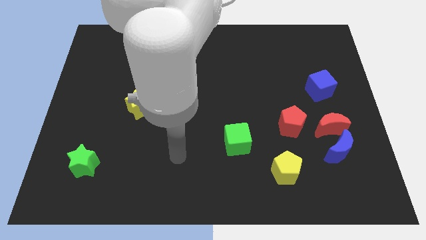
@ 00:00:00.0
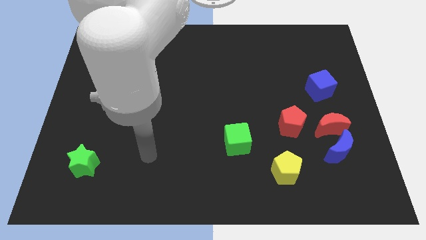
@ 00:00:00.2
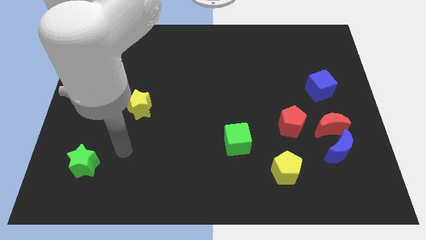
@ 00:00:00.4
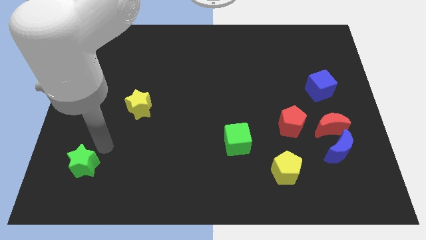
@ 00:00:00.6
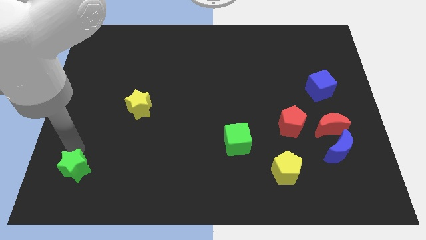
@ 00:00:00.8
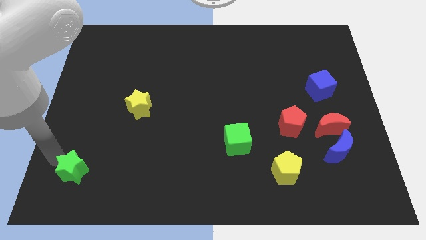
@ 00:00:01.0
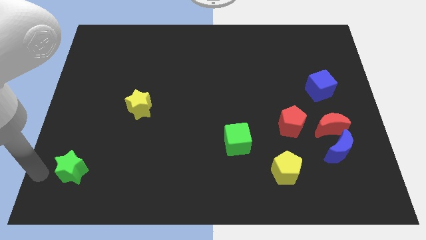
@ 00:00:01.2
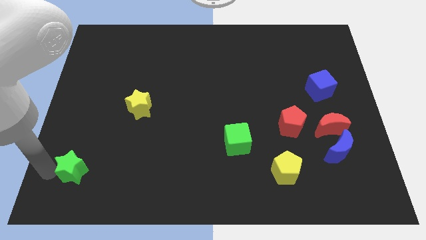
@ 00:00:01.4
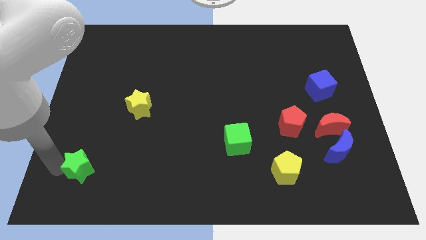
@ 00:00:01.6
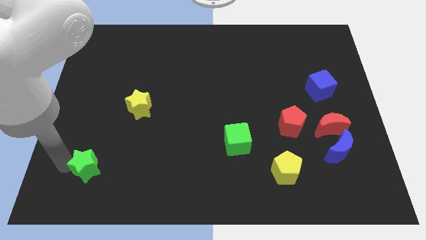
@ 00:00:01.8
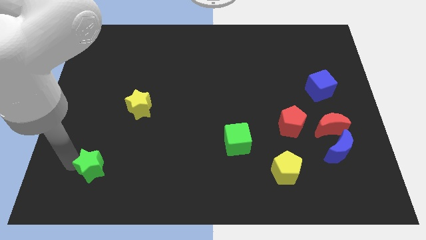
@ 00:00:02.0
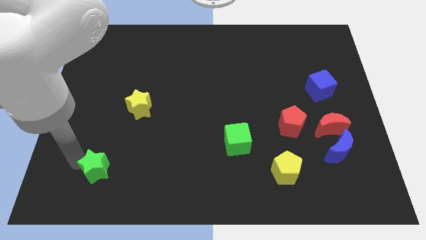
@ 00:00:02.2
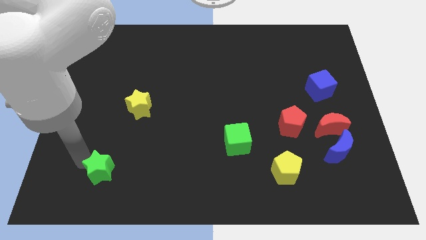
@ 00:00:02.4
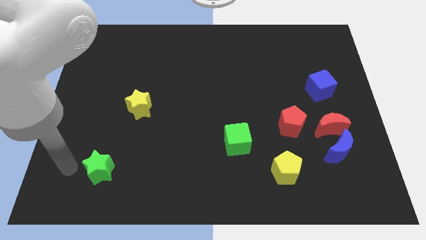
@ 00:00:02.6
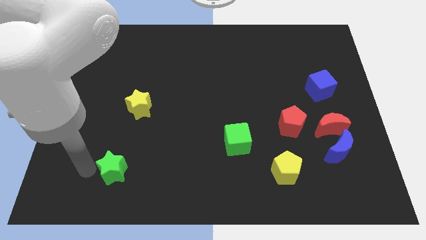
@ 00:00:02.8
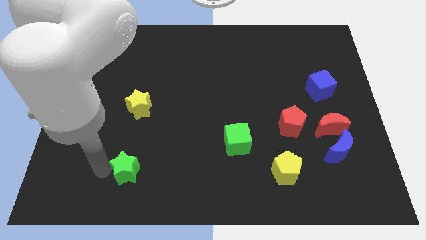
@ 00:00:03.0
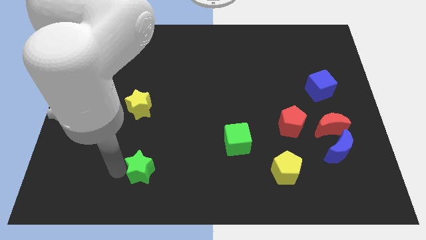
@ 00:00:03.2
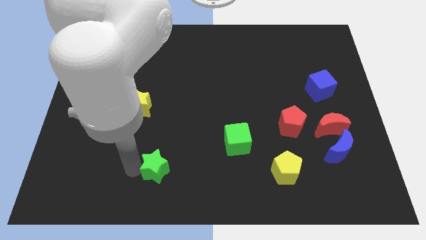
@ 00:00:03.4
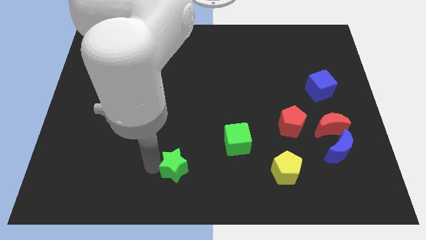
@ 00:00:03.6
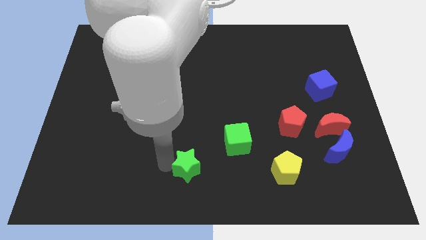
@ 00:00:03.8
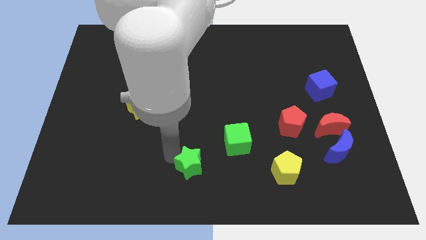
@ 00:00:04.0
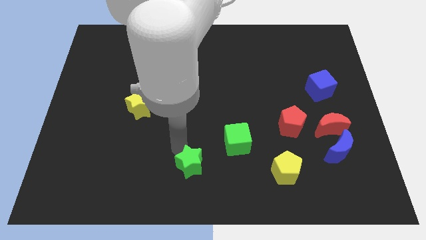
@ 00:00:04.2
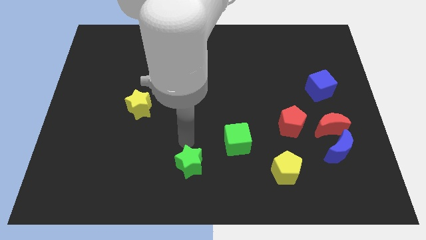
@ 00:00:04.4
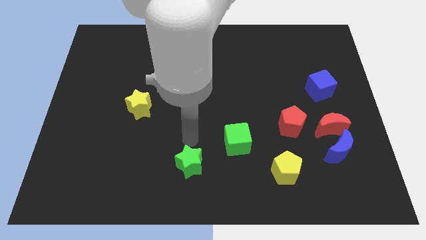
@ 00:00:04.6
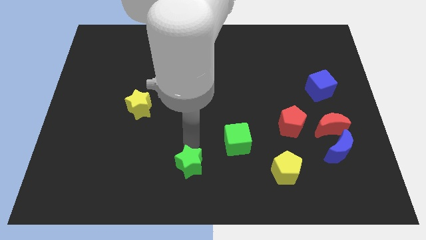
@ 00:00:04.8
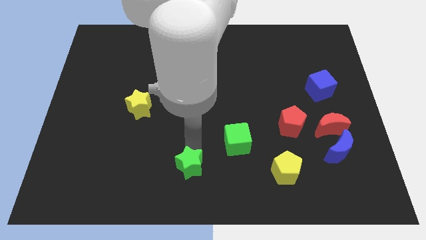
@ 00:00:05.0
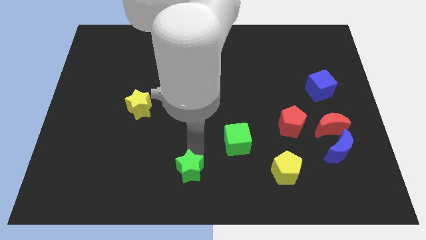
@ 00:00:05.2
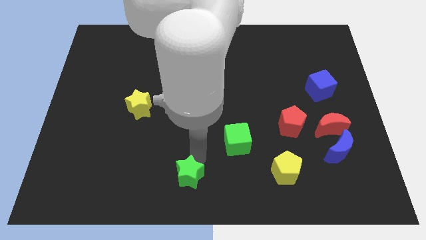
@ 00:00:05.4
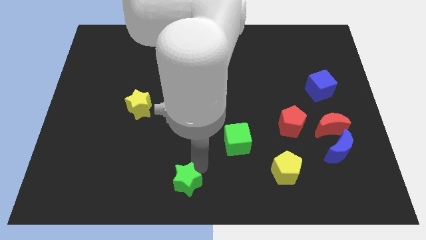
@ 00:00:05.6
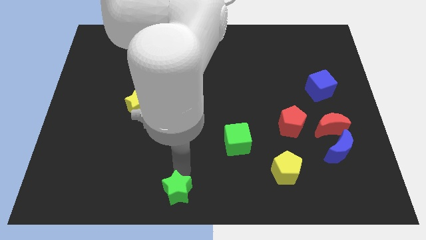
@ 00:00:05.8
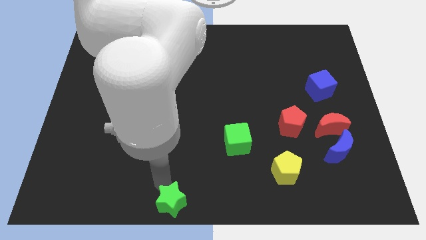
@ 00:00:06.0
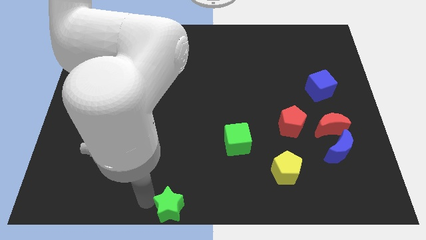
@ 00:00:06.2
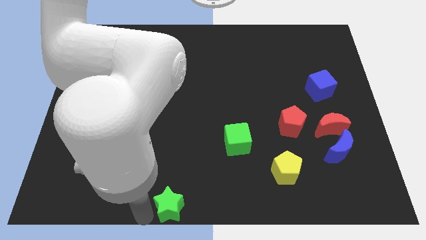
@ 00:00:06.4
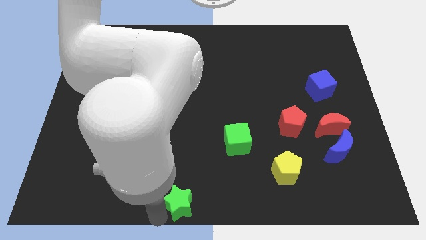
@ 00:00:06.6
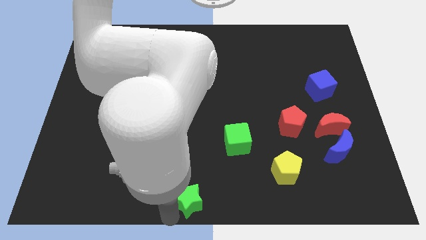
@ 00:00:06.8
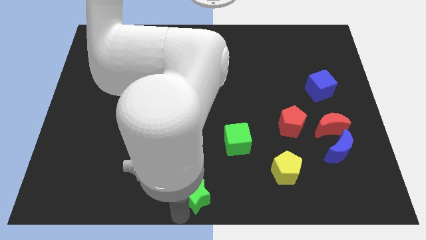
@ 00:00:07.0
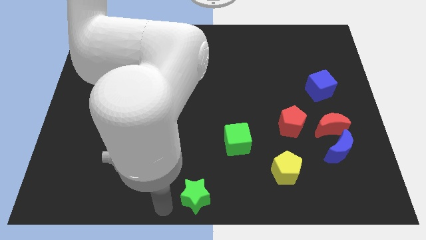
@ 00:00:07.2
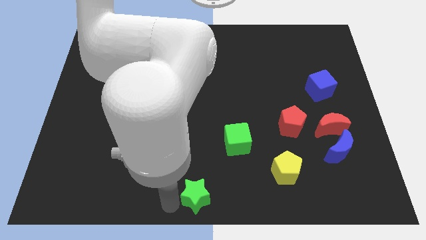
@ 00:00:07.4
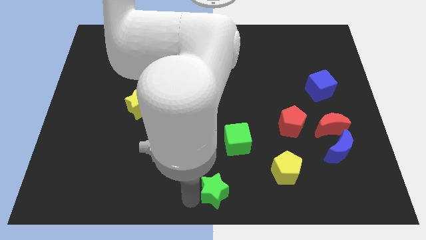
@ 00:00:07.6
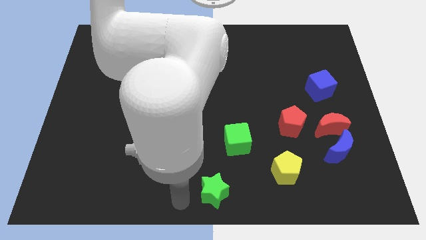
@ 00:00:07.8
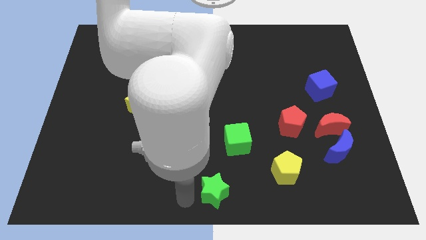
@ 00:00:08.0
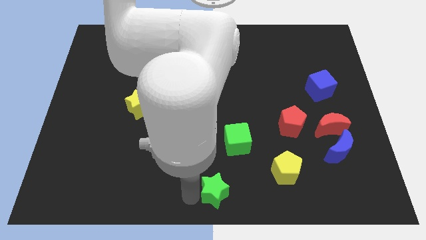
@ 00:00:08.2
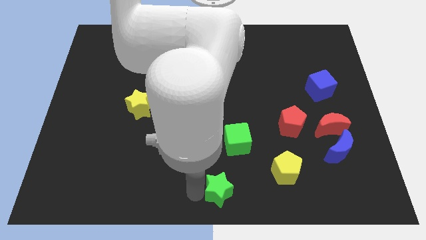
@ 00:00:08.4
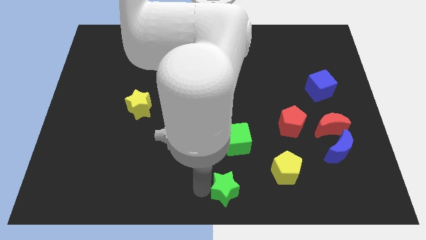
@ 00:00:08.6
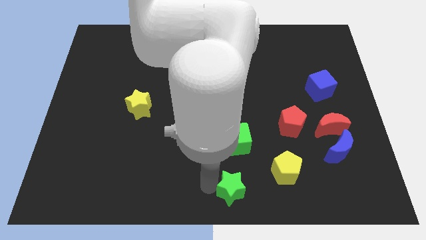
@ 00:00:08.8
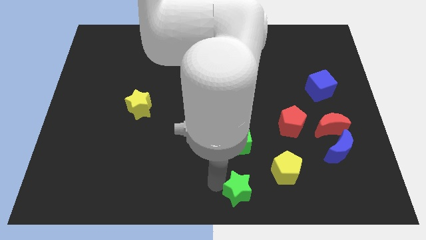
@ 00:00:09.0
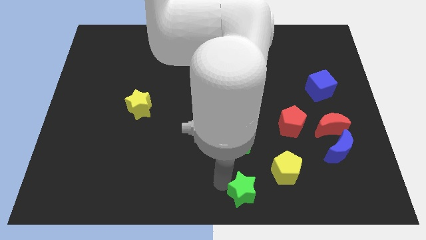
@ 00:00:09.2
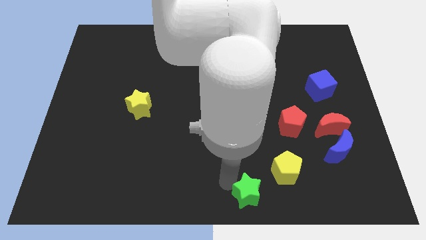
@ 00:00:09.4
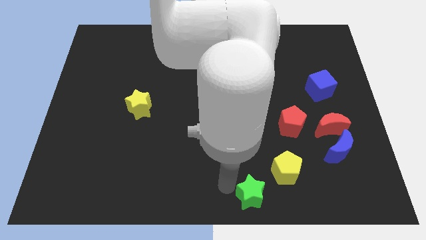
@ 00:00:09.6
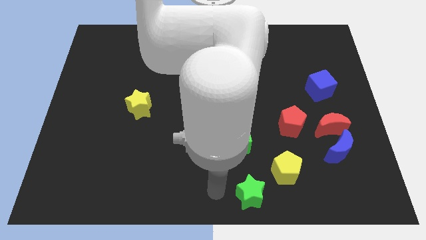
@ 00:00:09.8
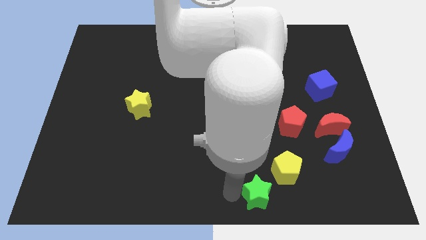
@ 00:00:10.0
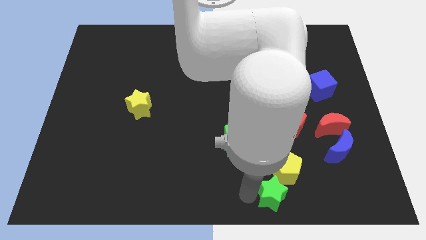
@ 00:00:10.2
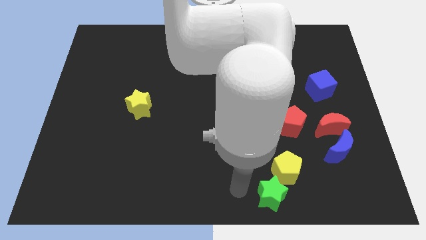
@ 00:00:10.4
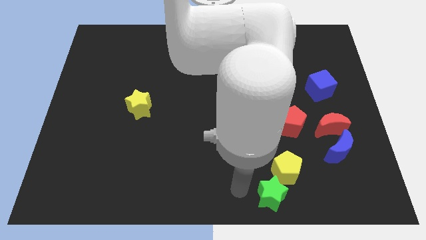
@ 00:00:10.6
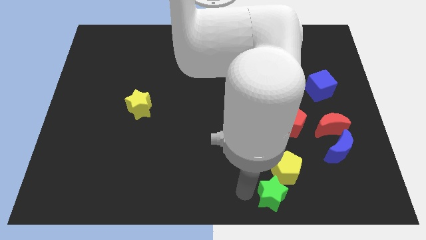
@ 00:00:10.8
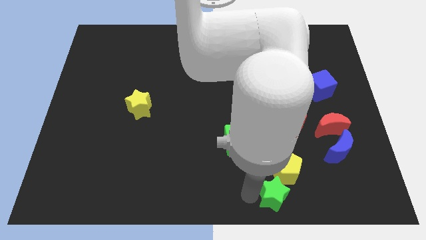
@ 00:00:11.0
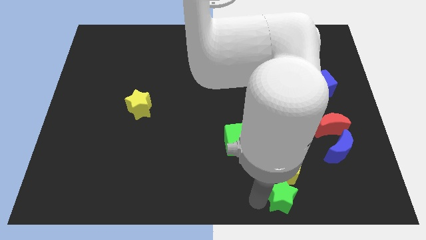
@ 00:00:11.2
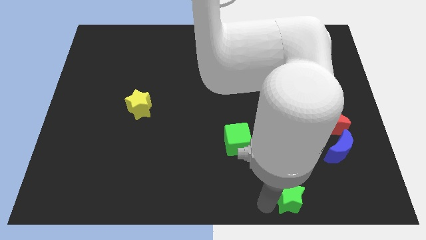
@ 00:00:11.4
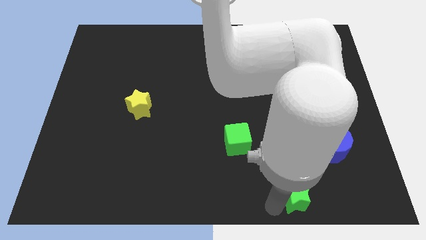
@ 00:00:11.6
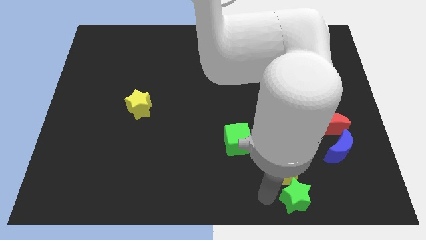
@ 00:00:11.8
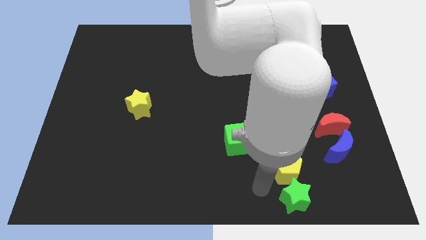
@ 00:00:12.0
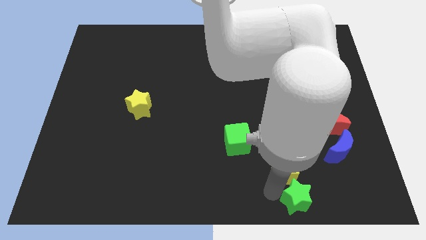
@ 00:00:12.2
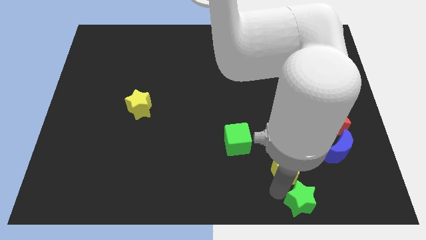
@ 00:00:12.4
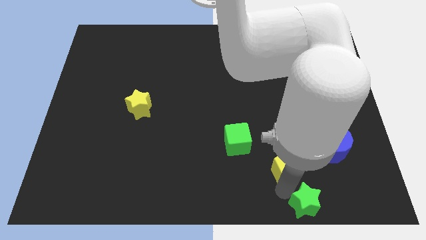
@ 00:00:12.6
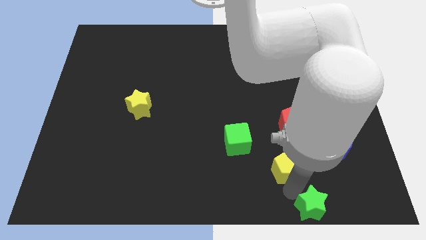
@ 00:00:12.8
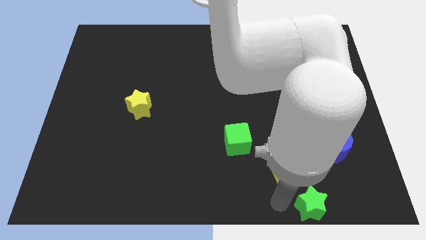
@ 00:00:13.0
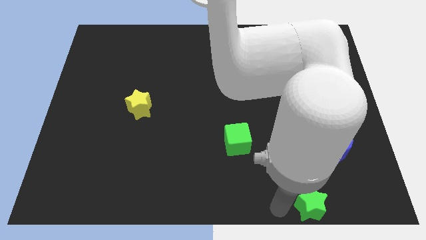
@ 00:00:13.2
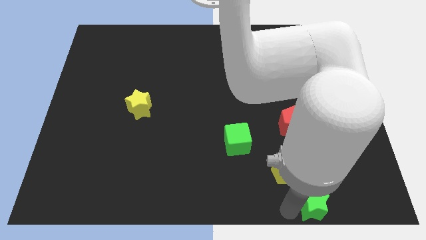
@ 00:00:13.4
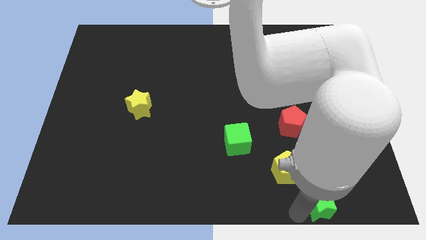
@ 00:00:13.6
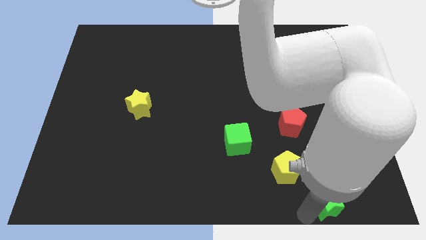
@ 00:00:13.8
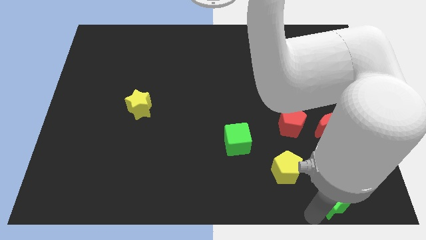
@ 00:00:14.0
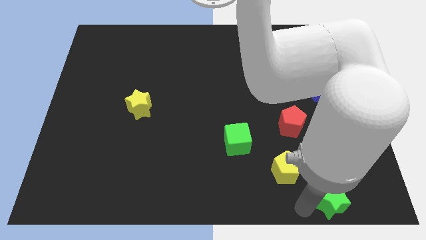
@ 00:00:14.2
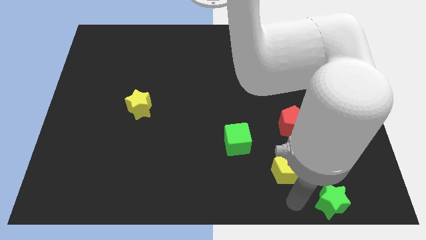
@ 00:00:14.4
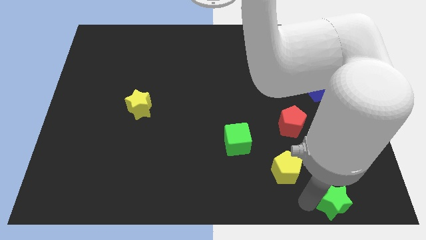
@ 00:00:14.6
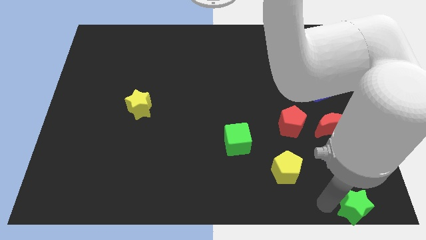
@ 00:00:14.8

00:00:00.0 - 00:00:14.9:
slide the green star to the bottom right corner
